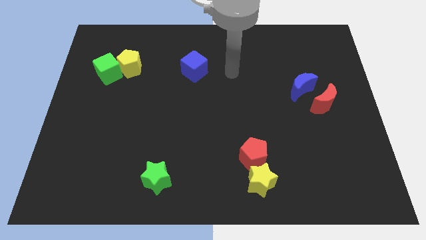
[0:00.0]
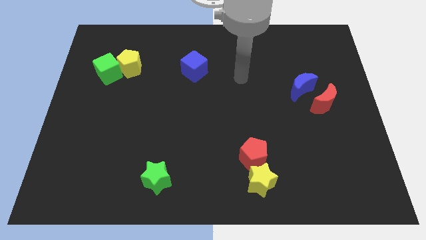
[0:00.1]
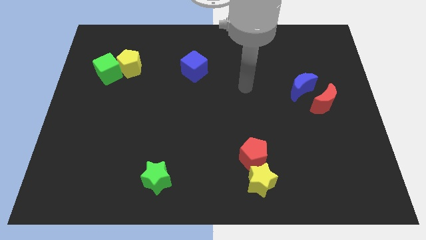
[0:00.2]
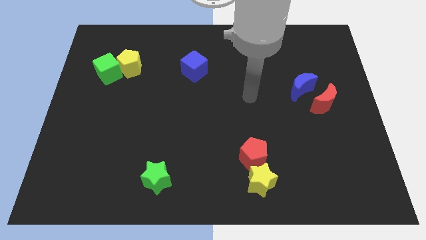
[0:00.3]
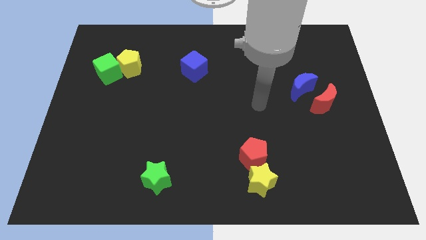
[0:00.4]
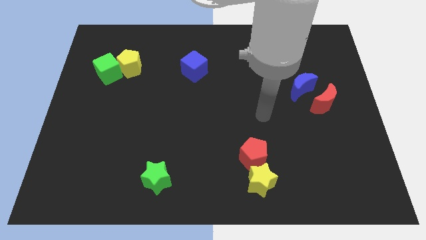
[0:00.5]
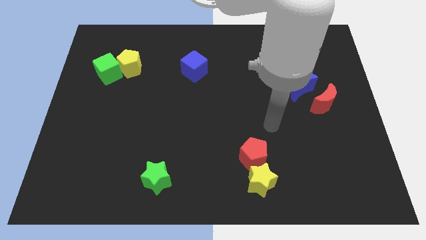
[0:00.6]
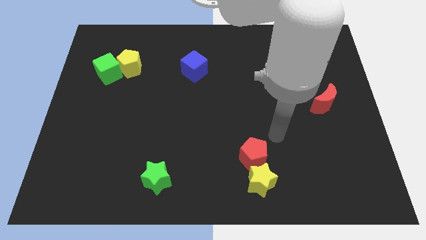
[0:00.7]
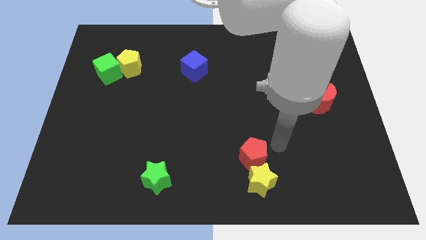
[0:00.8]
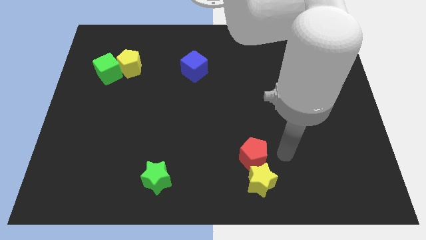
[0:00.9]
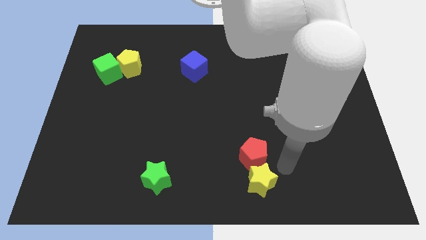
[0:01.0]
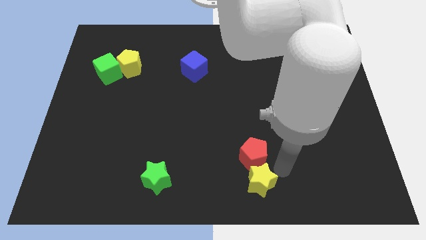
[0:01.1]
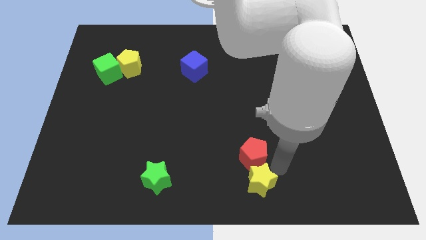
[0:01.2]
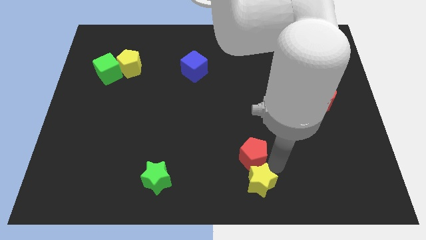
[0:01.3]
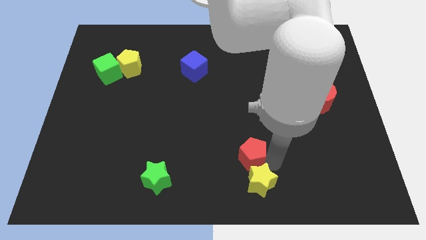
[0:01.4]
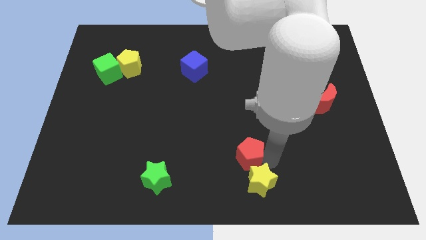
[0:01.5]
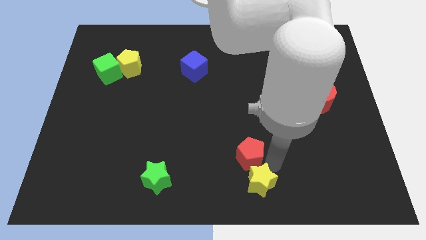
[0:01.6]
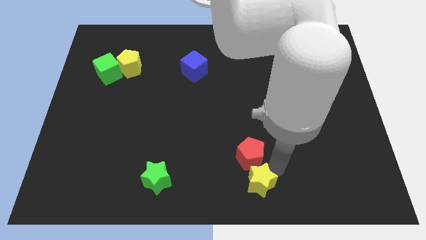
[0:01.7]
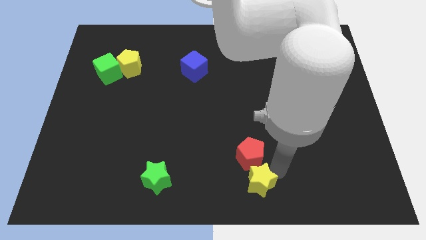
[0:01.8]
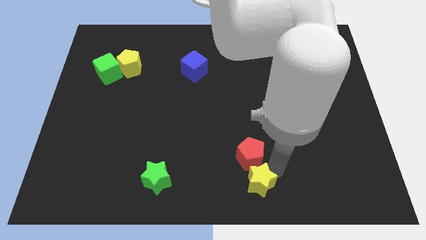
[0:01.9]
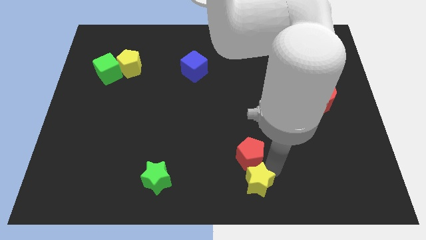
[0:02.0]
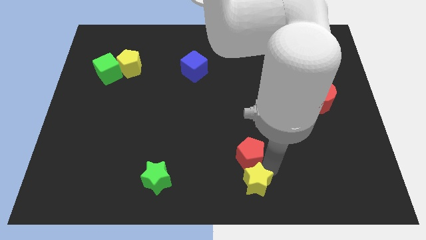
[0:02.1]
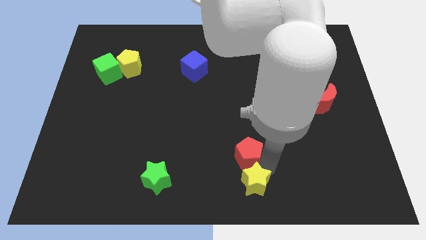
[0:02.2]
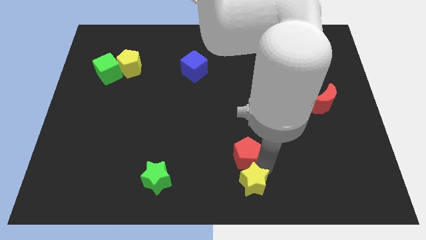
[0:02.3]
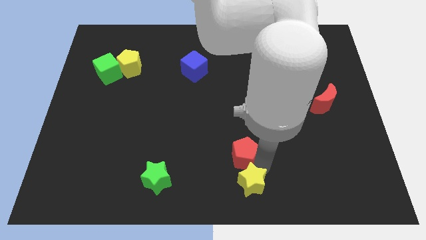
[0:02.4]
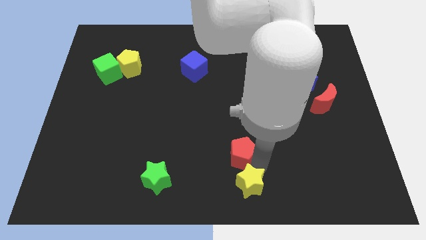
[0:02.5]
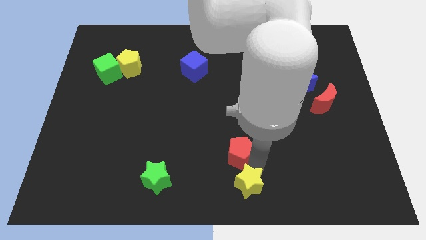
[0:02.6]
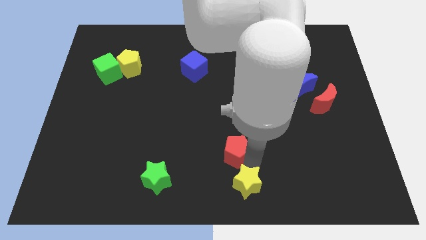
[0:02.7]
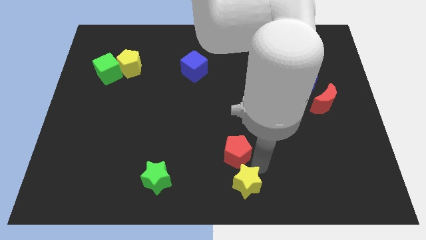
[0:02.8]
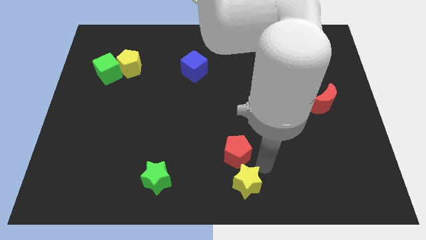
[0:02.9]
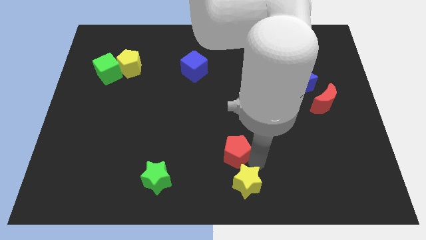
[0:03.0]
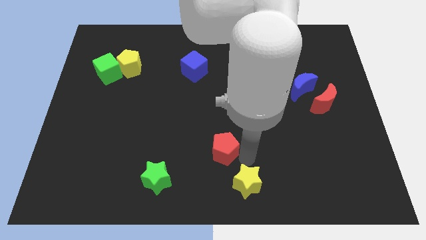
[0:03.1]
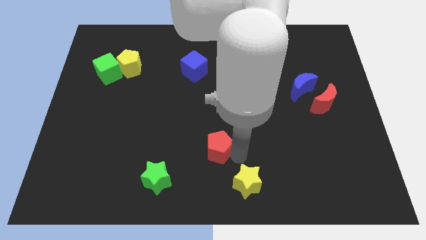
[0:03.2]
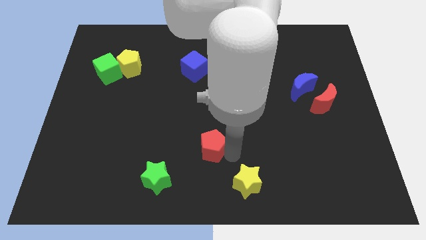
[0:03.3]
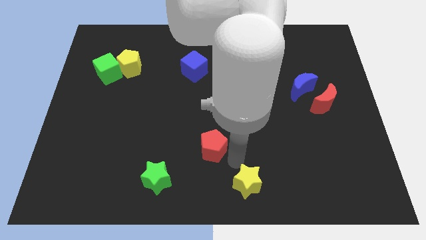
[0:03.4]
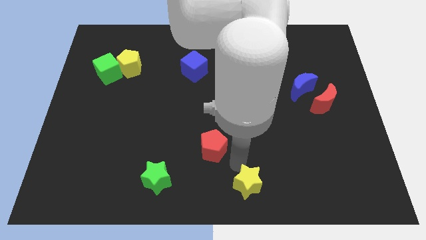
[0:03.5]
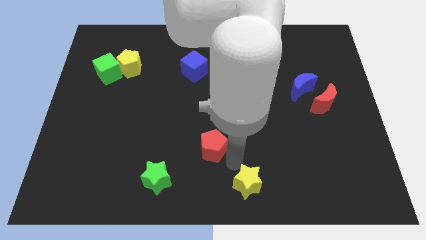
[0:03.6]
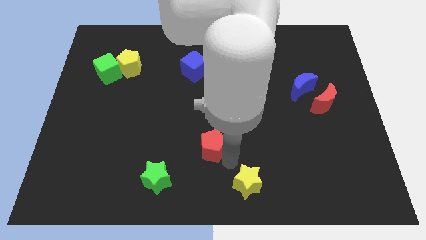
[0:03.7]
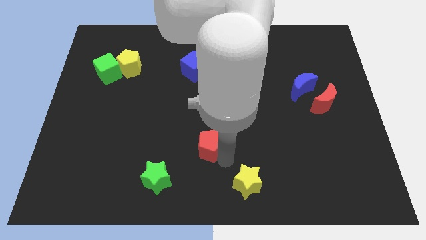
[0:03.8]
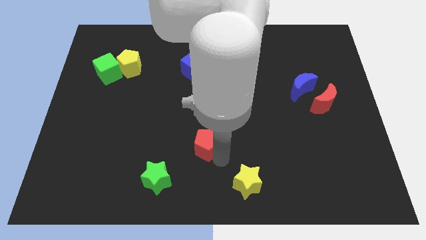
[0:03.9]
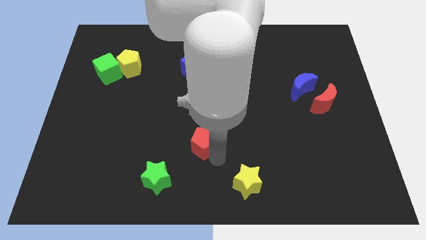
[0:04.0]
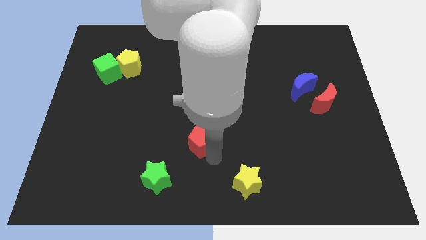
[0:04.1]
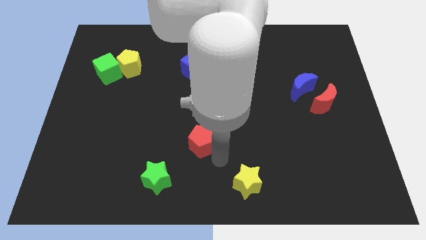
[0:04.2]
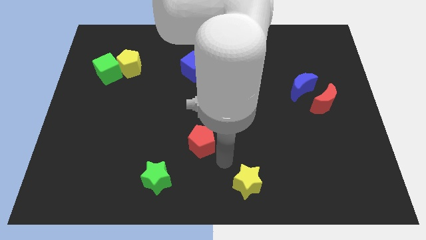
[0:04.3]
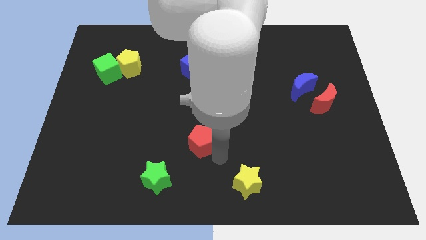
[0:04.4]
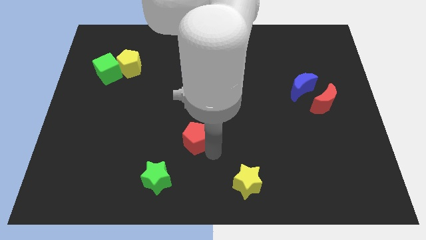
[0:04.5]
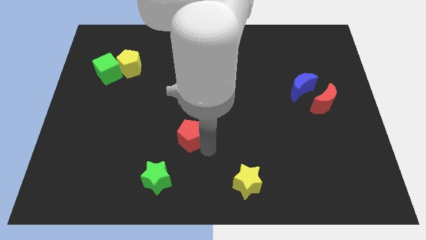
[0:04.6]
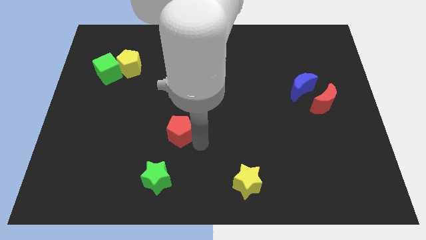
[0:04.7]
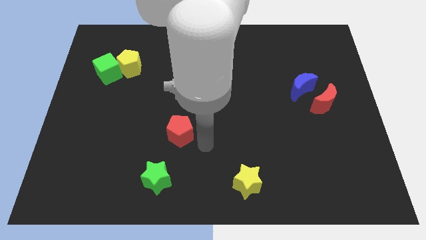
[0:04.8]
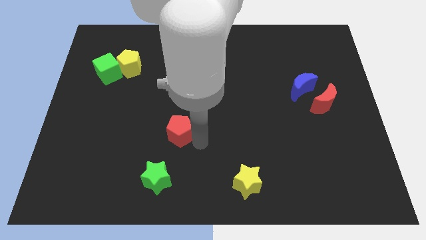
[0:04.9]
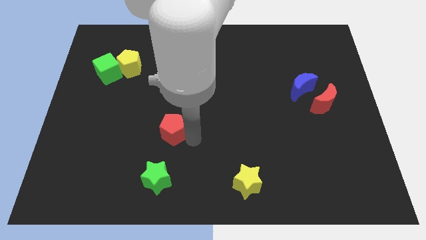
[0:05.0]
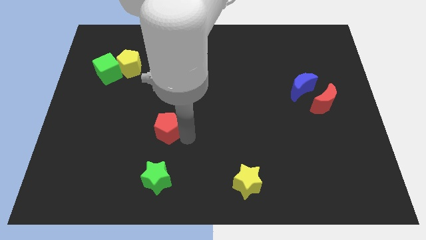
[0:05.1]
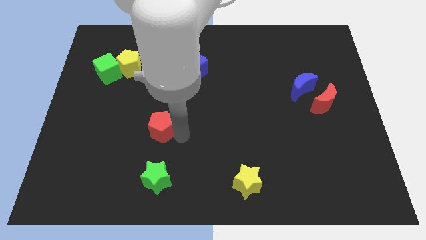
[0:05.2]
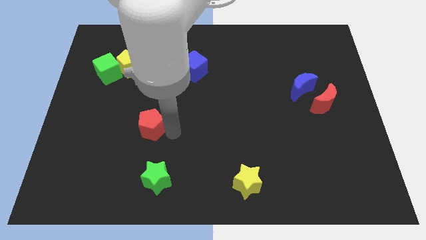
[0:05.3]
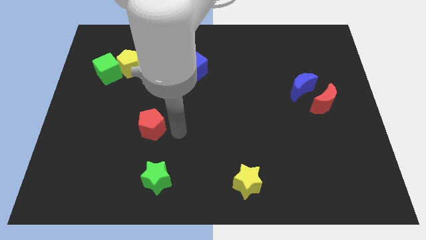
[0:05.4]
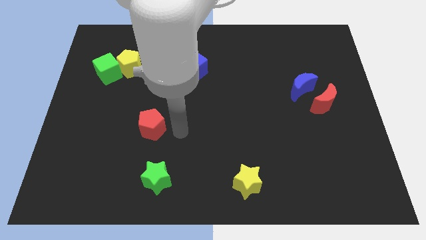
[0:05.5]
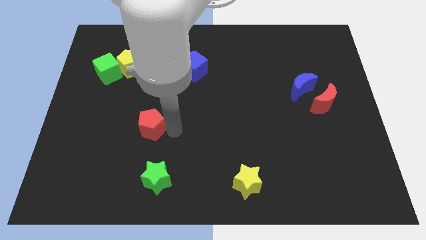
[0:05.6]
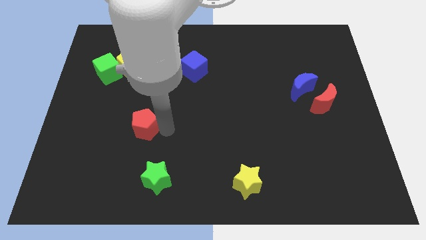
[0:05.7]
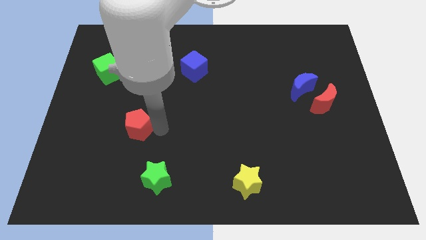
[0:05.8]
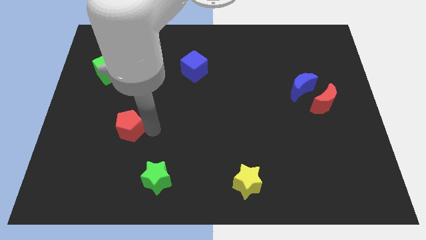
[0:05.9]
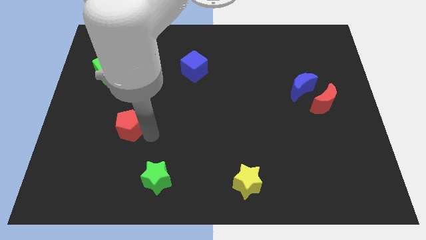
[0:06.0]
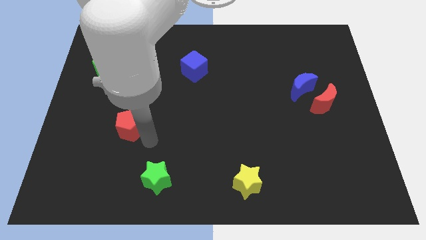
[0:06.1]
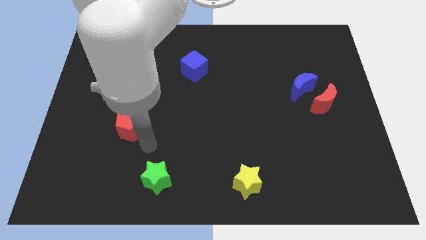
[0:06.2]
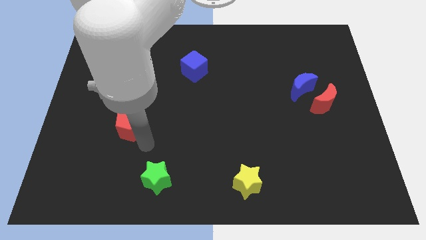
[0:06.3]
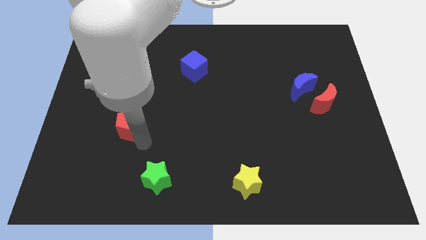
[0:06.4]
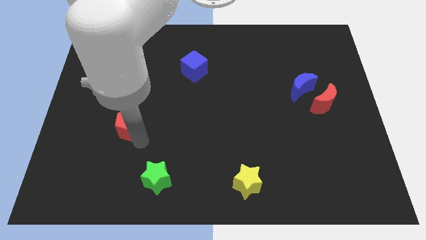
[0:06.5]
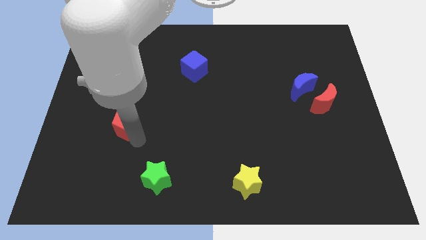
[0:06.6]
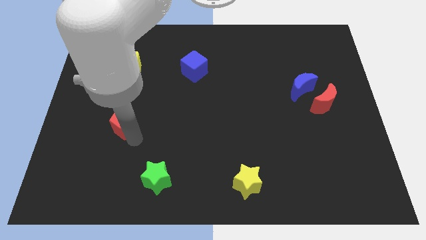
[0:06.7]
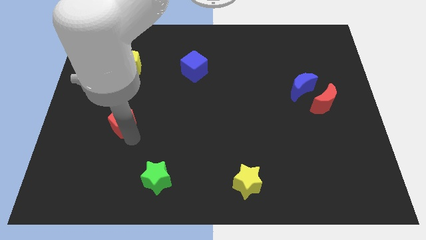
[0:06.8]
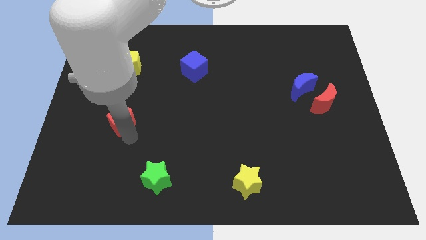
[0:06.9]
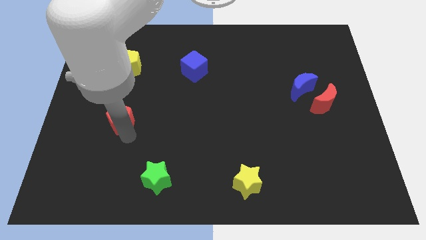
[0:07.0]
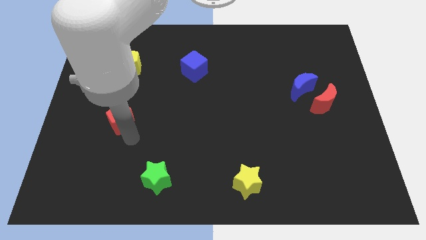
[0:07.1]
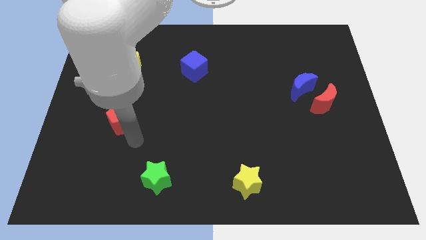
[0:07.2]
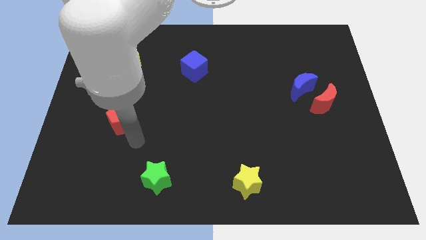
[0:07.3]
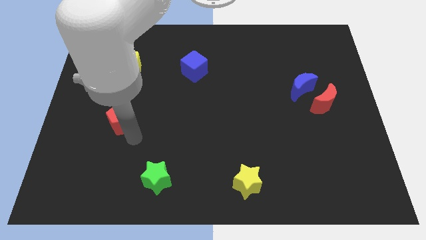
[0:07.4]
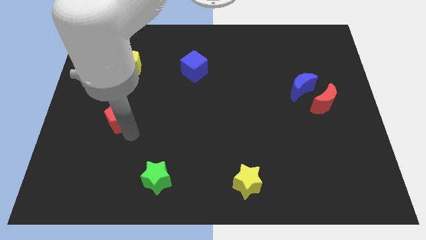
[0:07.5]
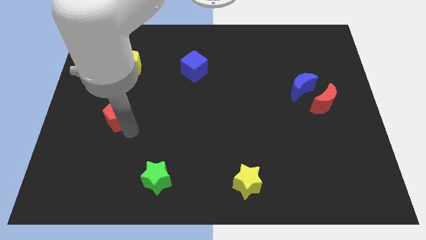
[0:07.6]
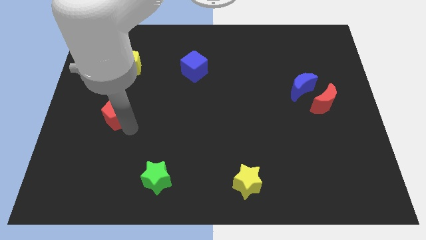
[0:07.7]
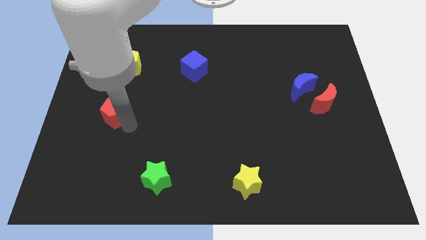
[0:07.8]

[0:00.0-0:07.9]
move the red pentagon to the bottom of the green cube
